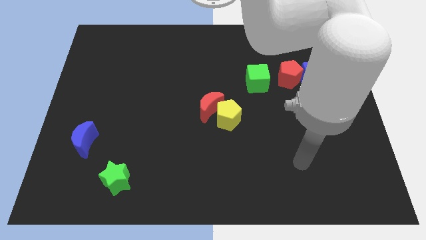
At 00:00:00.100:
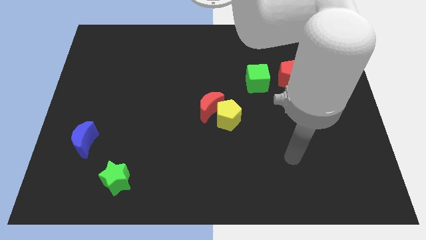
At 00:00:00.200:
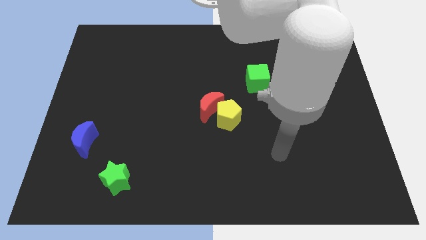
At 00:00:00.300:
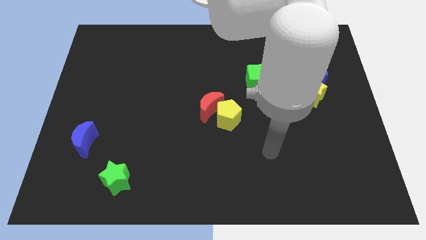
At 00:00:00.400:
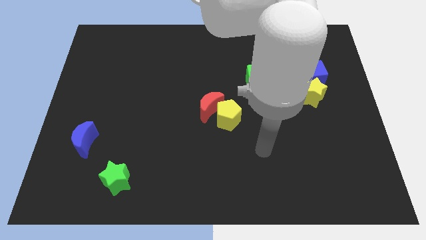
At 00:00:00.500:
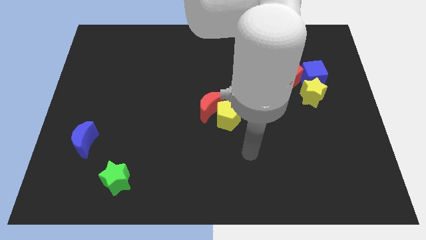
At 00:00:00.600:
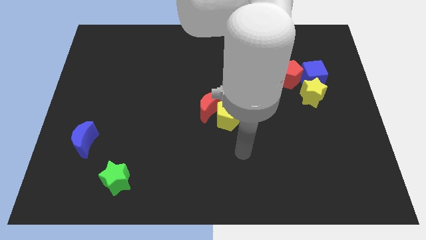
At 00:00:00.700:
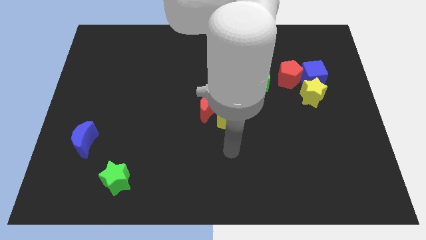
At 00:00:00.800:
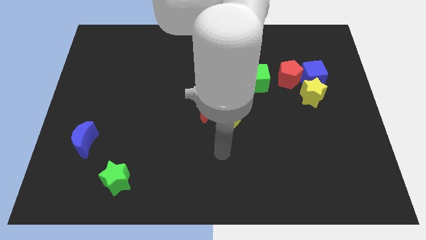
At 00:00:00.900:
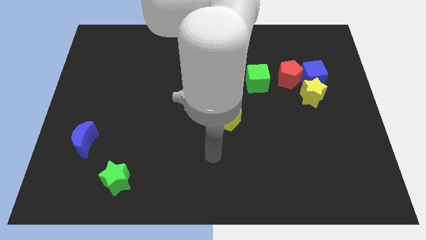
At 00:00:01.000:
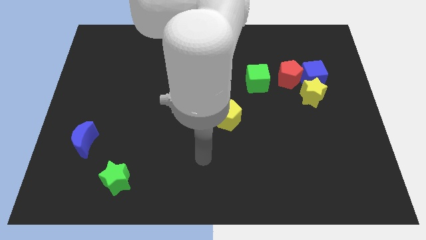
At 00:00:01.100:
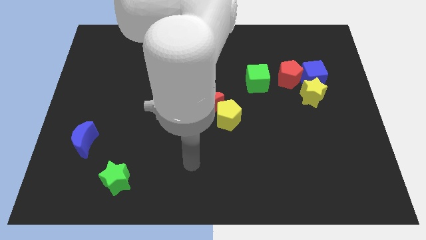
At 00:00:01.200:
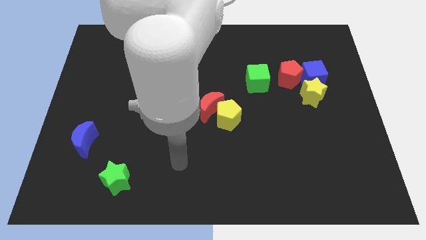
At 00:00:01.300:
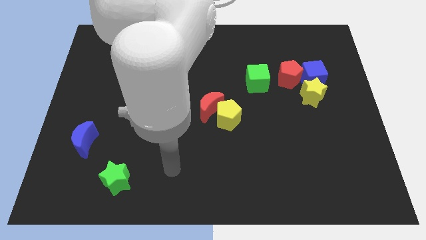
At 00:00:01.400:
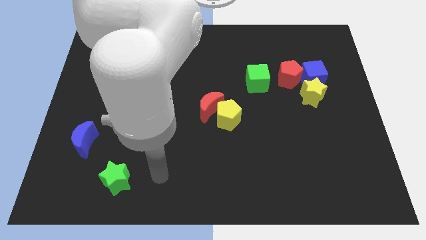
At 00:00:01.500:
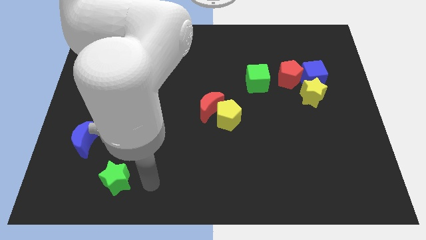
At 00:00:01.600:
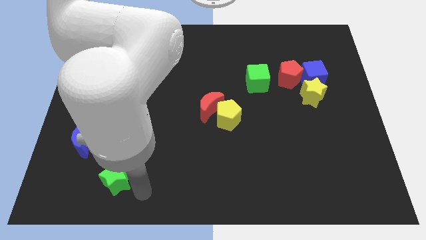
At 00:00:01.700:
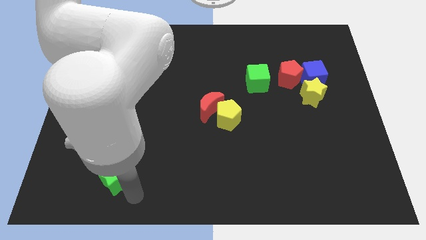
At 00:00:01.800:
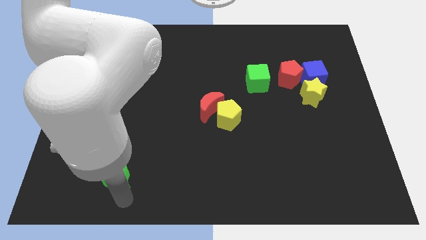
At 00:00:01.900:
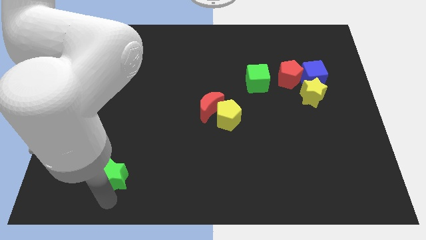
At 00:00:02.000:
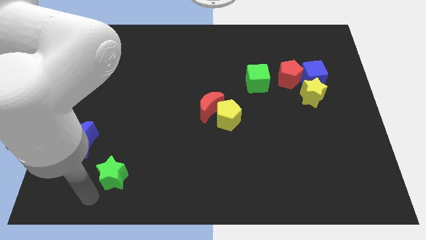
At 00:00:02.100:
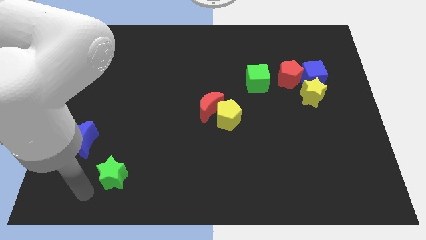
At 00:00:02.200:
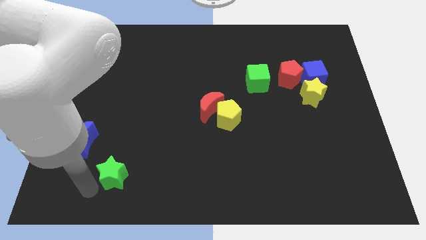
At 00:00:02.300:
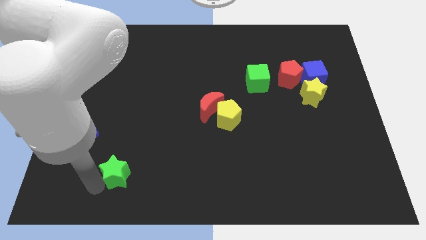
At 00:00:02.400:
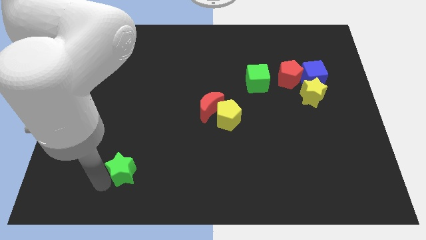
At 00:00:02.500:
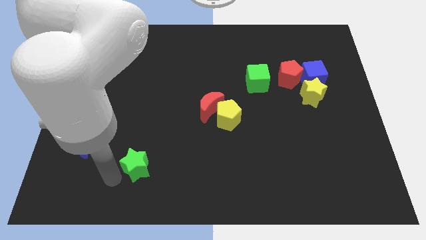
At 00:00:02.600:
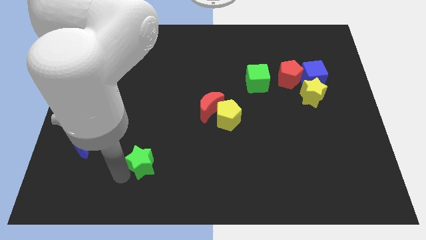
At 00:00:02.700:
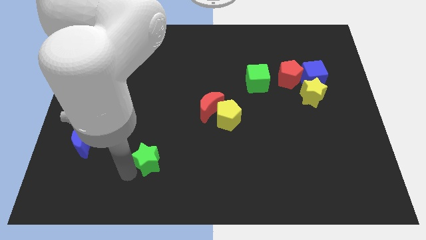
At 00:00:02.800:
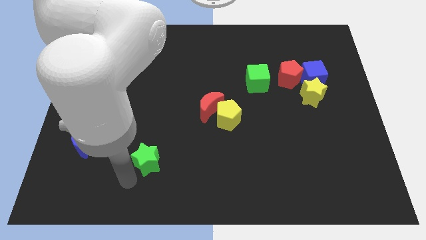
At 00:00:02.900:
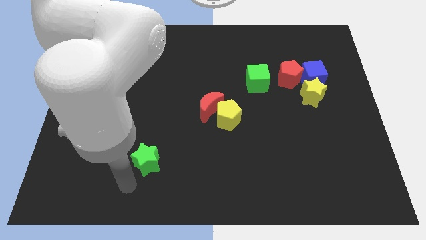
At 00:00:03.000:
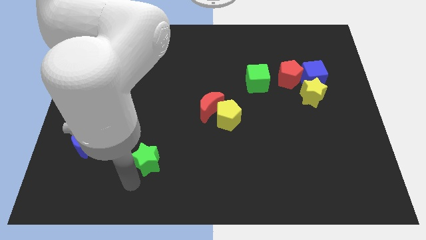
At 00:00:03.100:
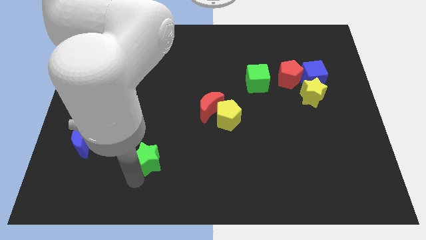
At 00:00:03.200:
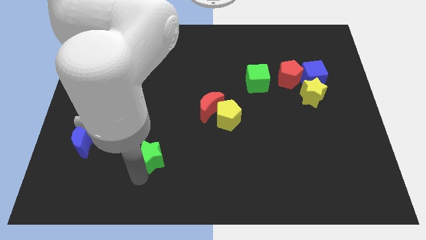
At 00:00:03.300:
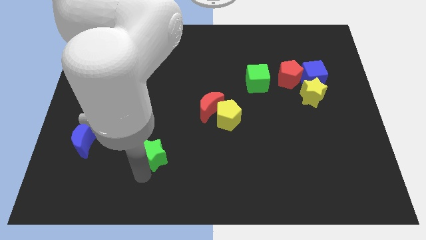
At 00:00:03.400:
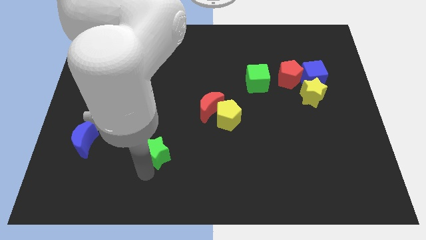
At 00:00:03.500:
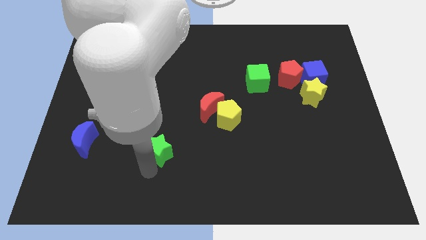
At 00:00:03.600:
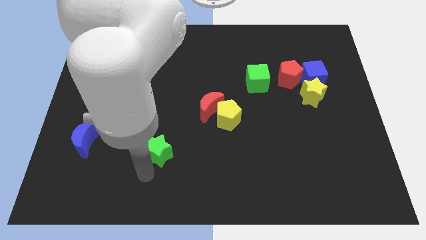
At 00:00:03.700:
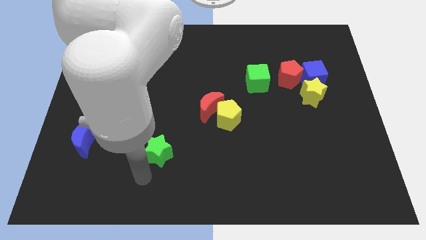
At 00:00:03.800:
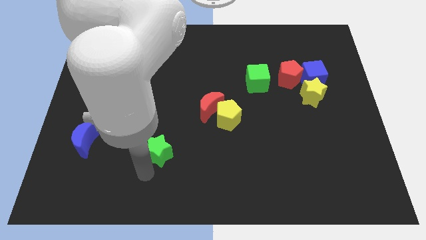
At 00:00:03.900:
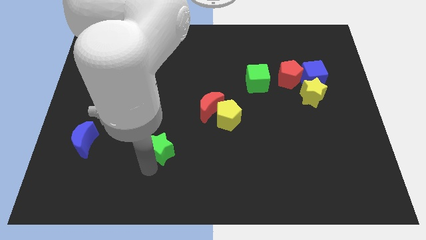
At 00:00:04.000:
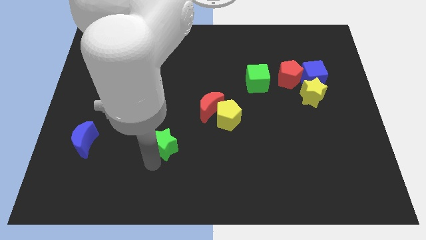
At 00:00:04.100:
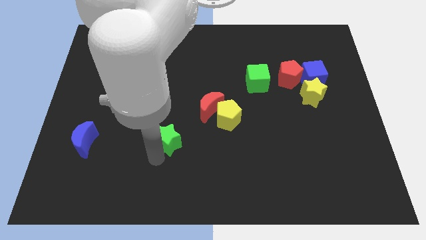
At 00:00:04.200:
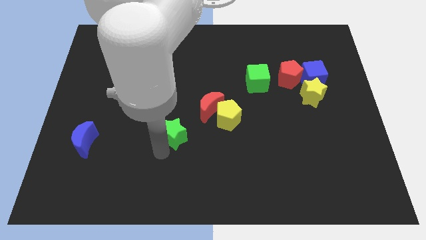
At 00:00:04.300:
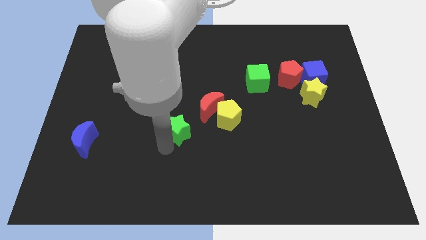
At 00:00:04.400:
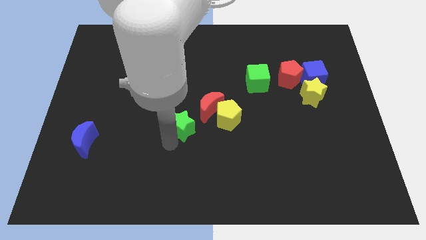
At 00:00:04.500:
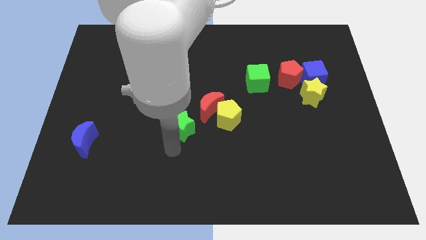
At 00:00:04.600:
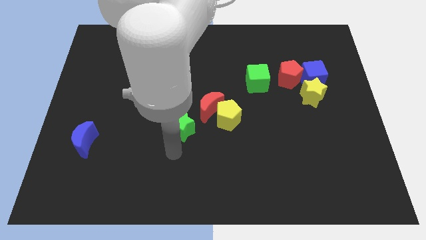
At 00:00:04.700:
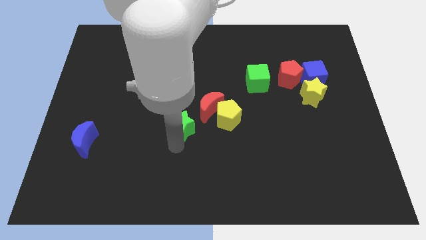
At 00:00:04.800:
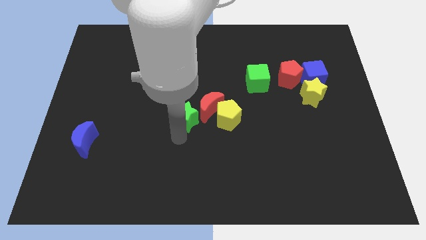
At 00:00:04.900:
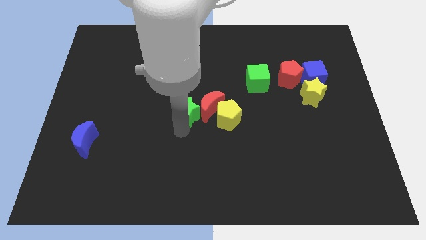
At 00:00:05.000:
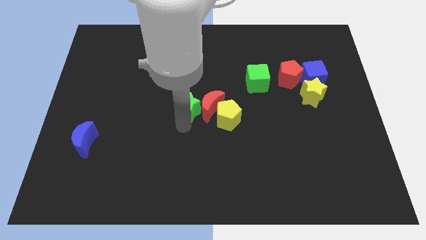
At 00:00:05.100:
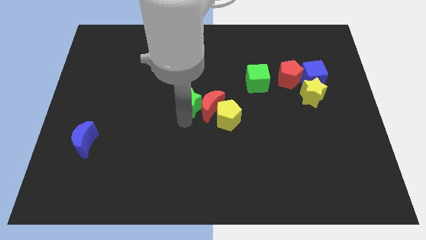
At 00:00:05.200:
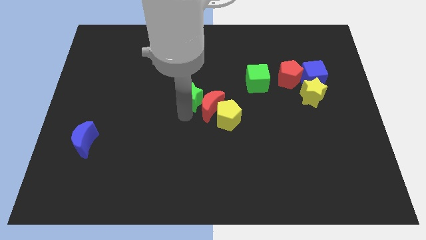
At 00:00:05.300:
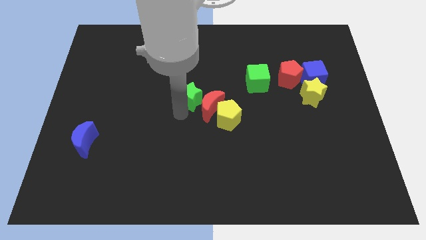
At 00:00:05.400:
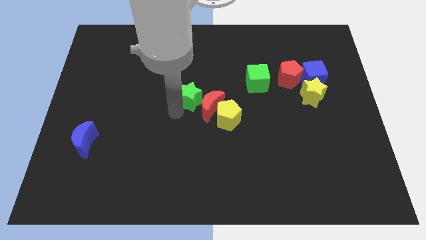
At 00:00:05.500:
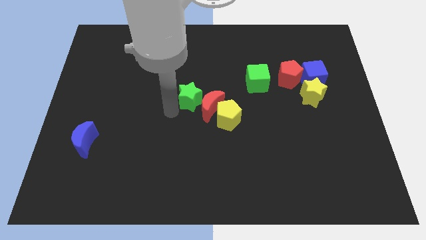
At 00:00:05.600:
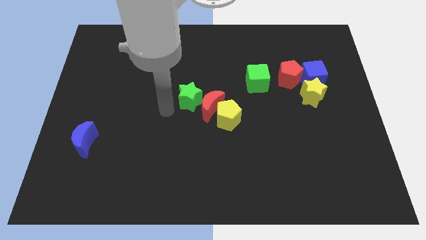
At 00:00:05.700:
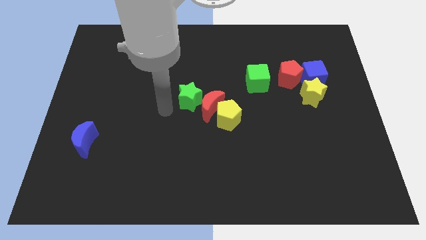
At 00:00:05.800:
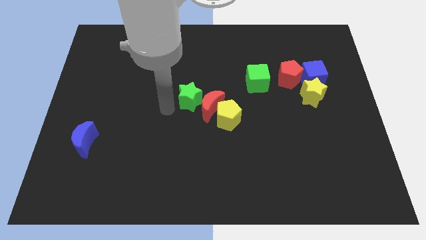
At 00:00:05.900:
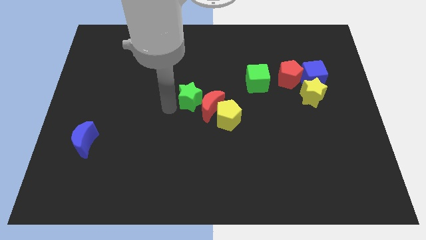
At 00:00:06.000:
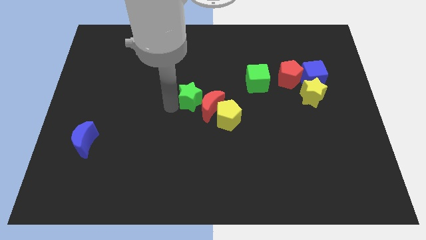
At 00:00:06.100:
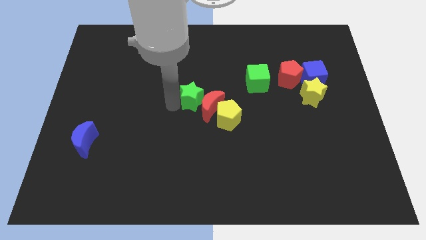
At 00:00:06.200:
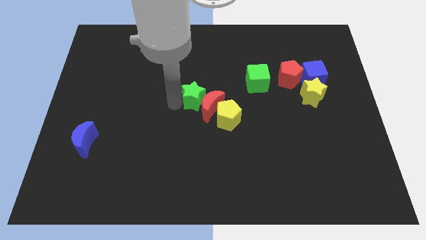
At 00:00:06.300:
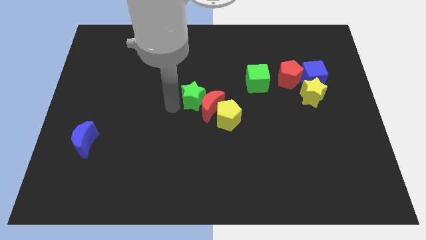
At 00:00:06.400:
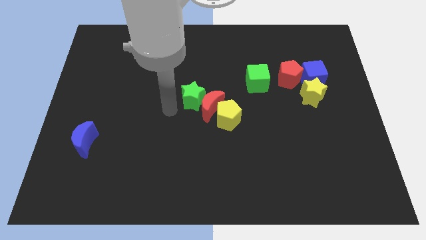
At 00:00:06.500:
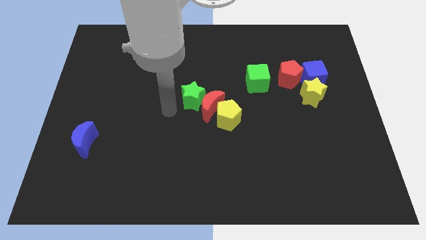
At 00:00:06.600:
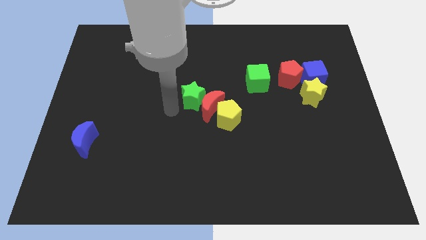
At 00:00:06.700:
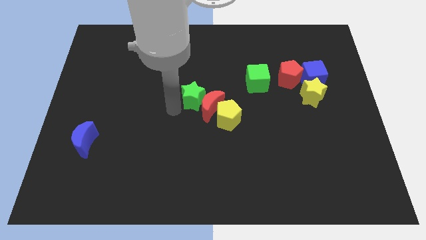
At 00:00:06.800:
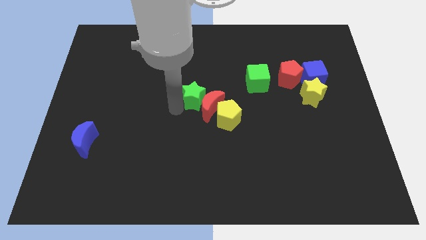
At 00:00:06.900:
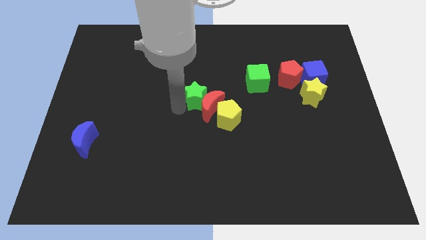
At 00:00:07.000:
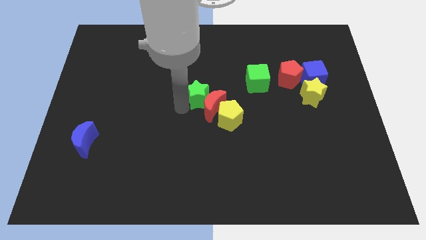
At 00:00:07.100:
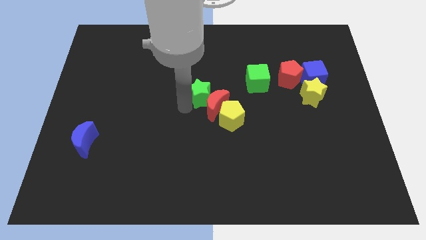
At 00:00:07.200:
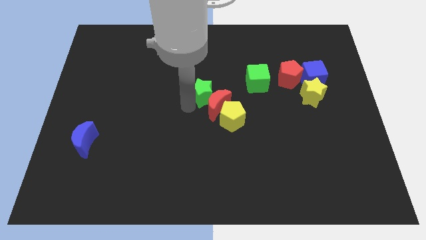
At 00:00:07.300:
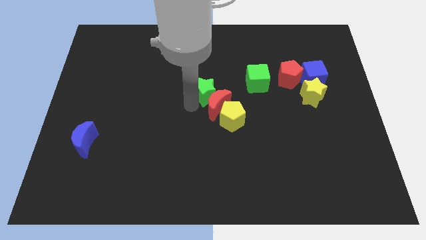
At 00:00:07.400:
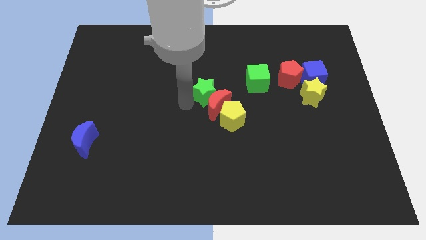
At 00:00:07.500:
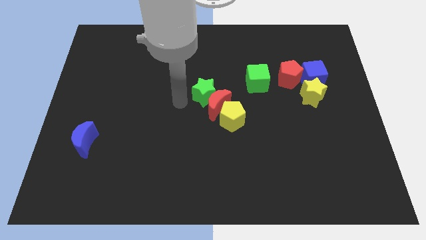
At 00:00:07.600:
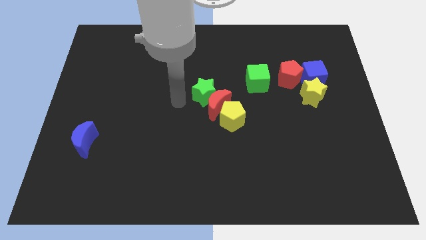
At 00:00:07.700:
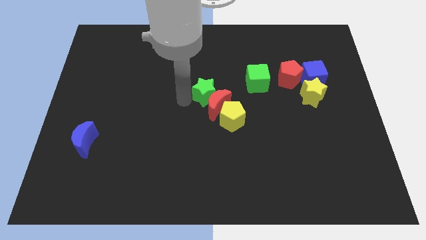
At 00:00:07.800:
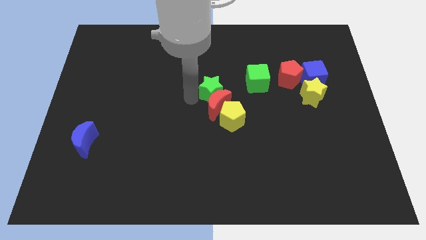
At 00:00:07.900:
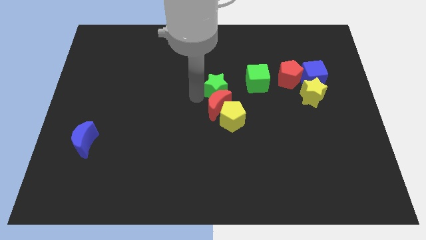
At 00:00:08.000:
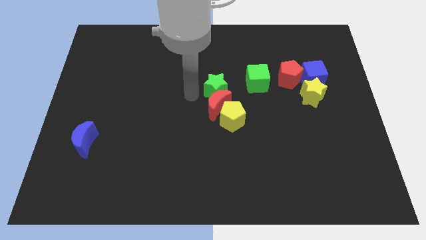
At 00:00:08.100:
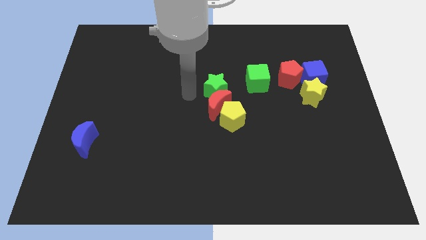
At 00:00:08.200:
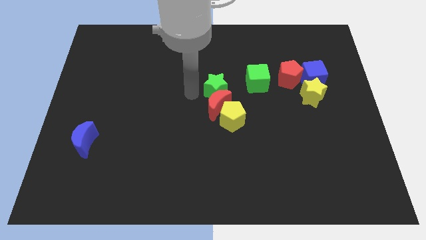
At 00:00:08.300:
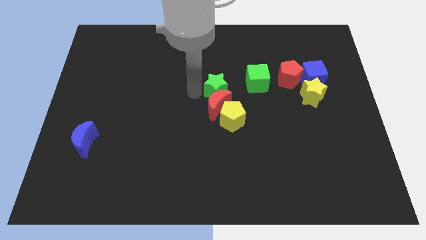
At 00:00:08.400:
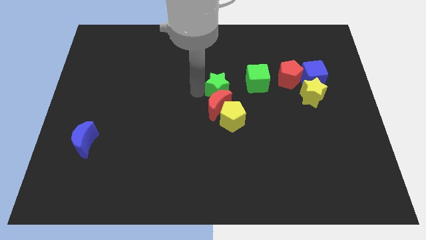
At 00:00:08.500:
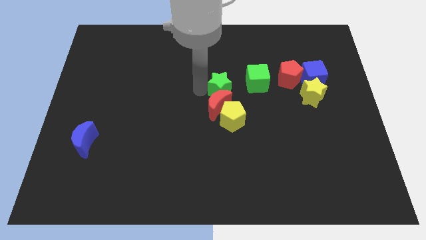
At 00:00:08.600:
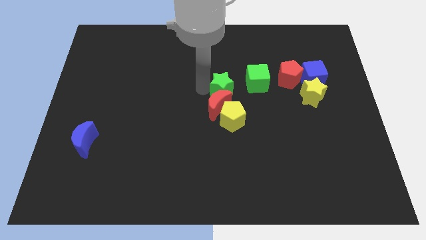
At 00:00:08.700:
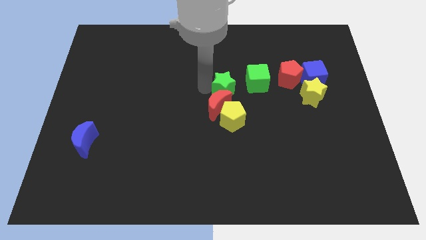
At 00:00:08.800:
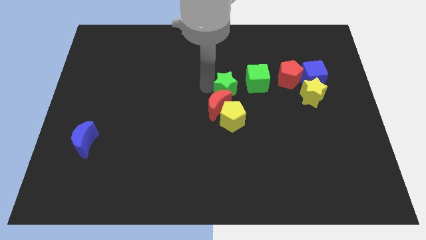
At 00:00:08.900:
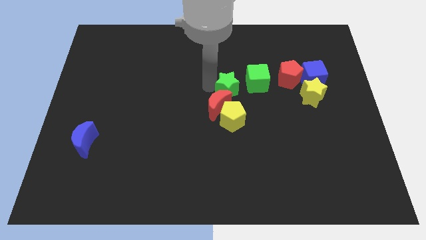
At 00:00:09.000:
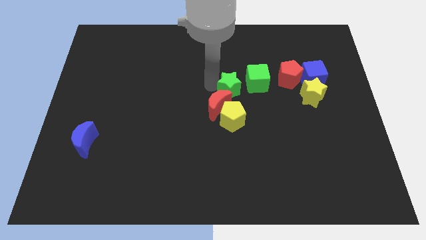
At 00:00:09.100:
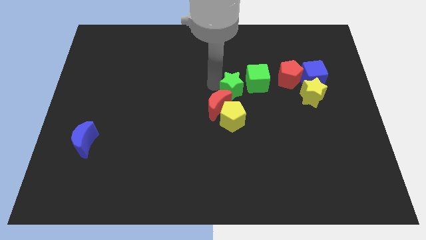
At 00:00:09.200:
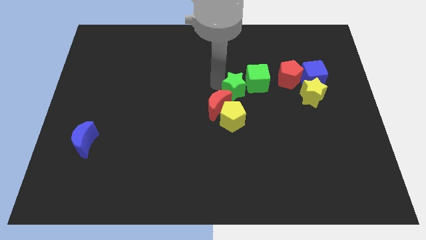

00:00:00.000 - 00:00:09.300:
push the green star towards the green cube
